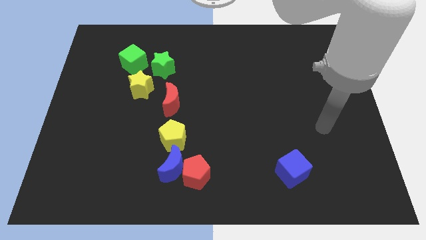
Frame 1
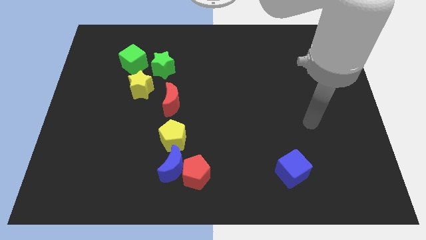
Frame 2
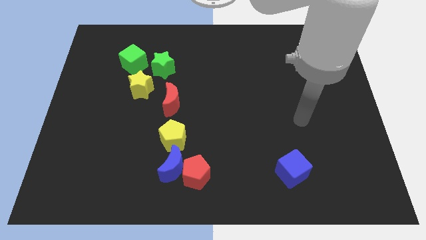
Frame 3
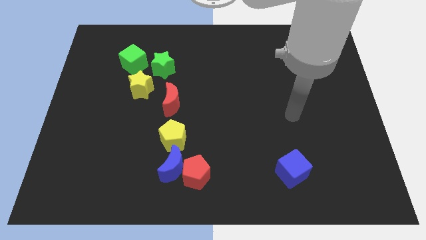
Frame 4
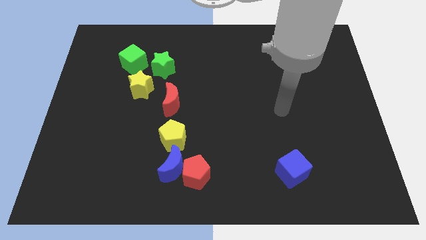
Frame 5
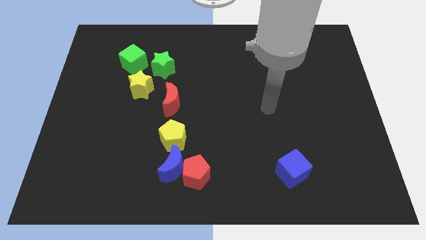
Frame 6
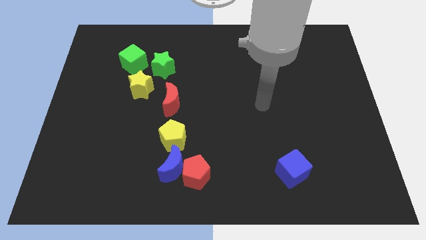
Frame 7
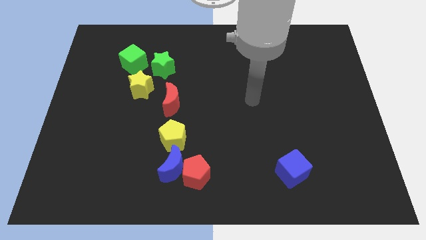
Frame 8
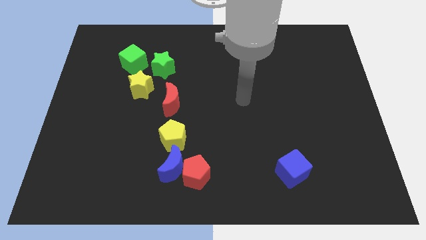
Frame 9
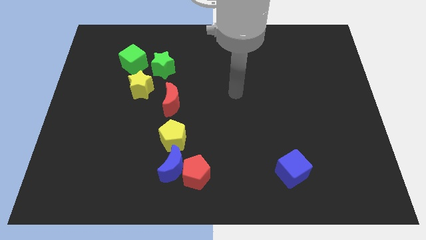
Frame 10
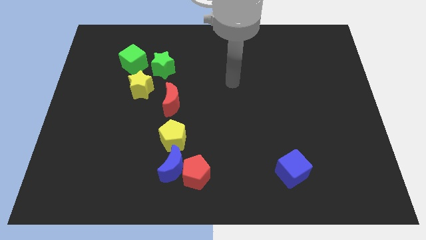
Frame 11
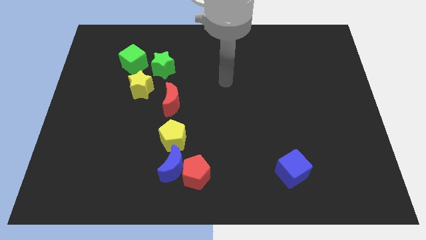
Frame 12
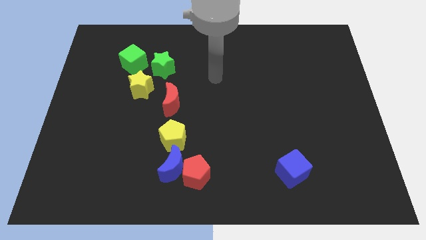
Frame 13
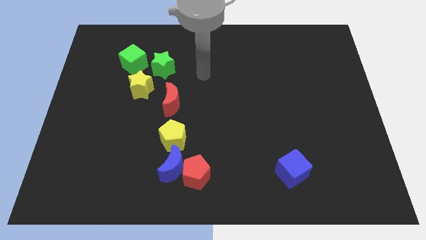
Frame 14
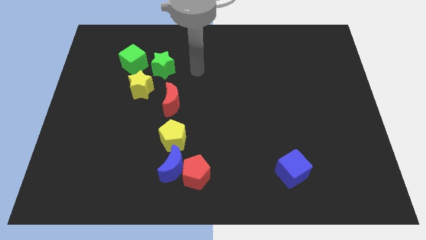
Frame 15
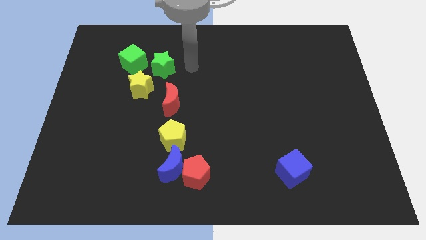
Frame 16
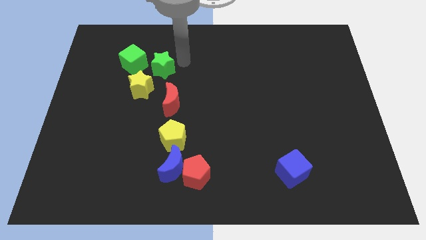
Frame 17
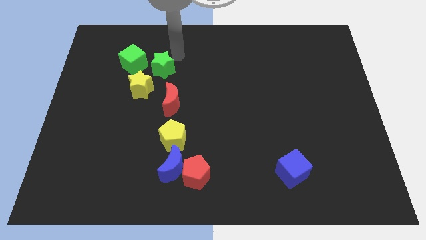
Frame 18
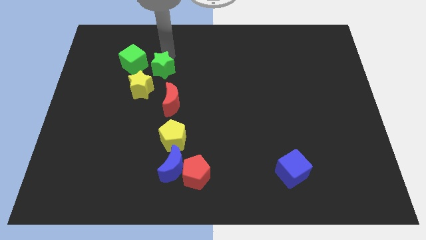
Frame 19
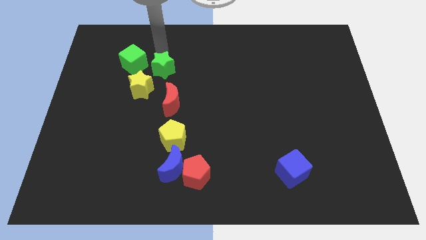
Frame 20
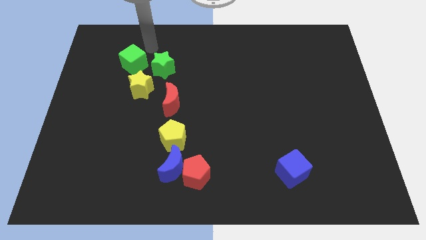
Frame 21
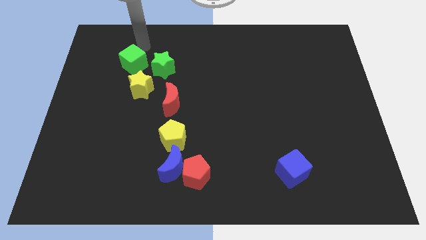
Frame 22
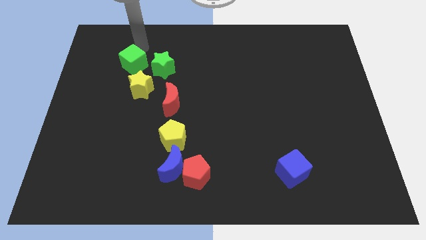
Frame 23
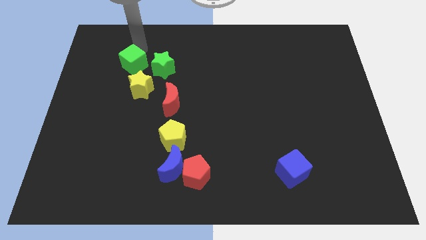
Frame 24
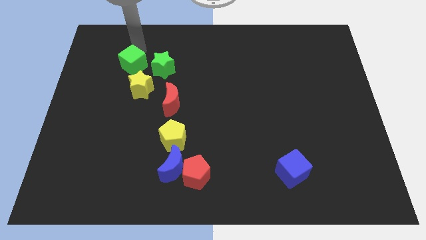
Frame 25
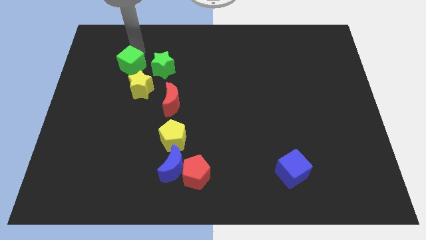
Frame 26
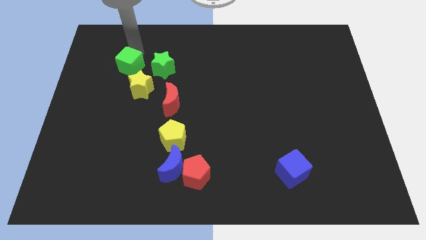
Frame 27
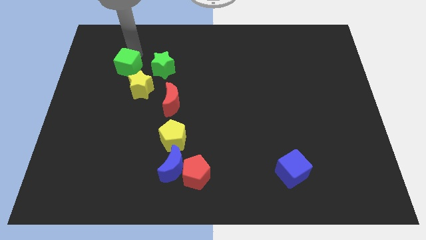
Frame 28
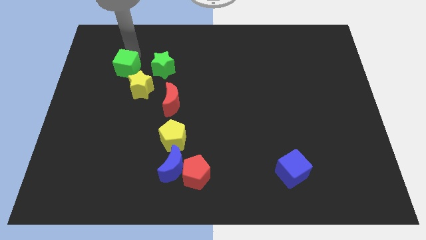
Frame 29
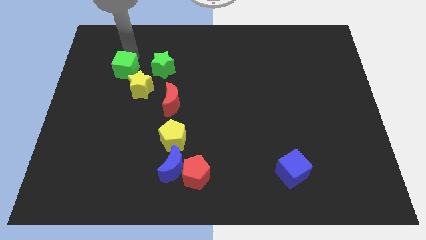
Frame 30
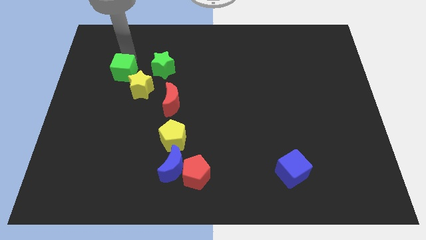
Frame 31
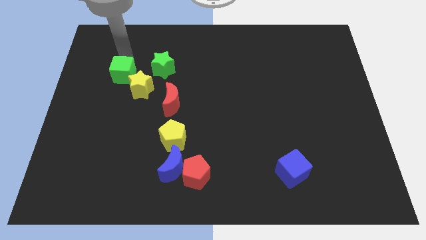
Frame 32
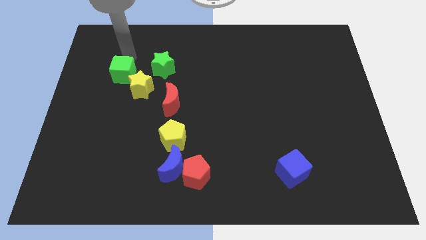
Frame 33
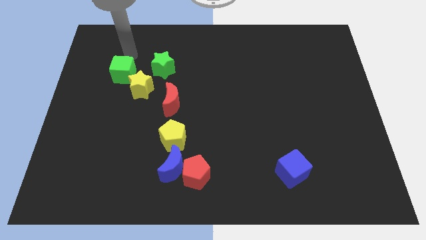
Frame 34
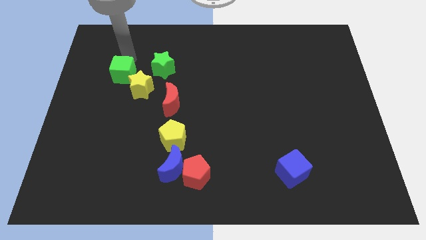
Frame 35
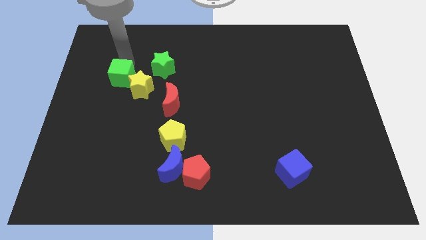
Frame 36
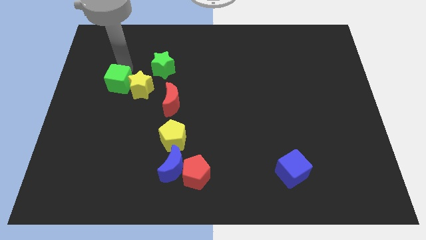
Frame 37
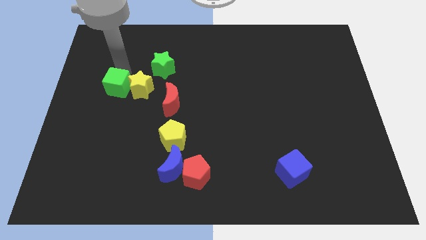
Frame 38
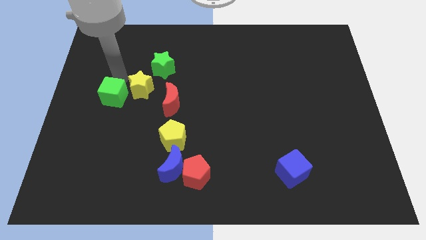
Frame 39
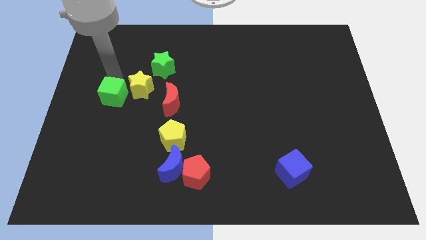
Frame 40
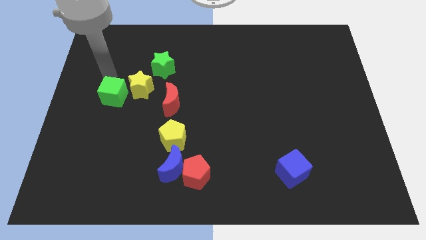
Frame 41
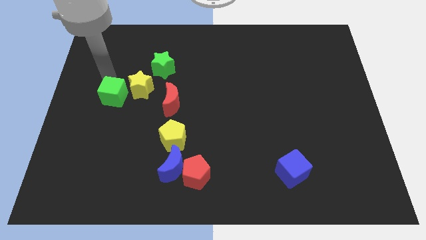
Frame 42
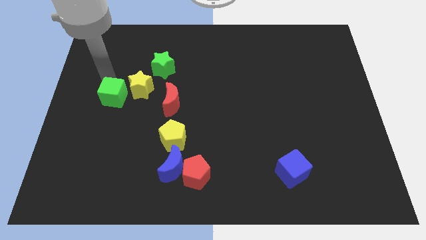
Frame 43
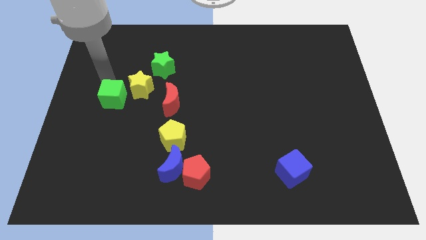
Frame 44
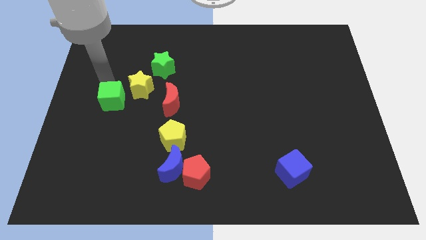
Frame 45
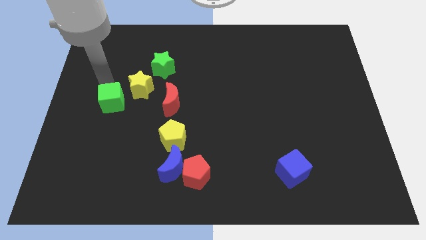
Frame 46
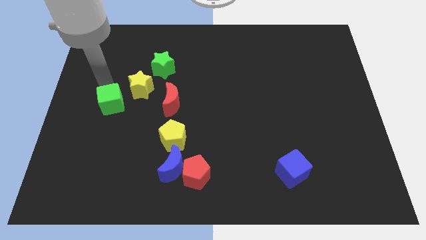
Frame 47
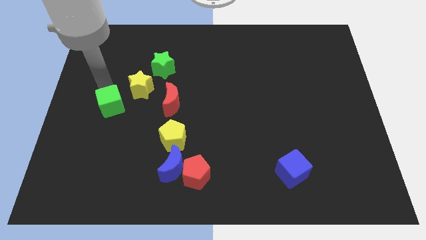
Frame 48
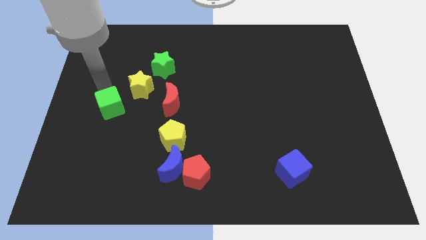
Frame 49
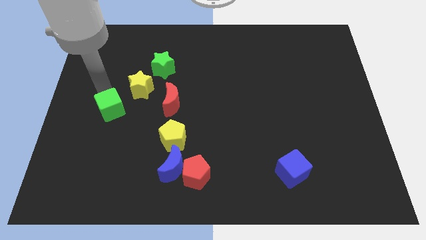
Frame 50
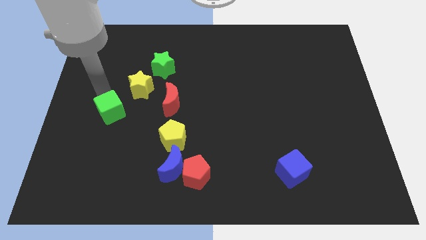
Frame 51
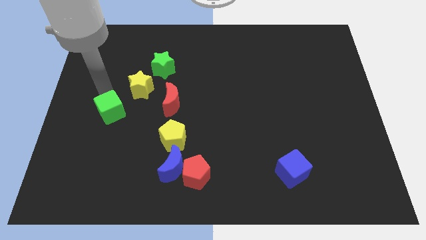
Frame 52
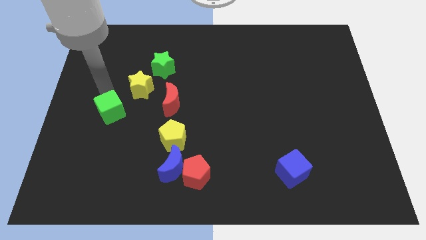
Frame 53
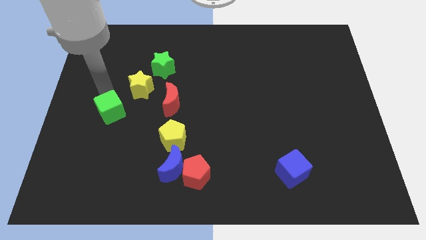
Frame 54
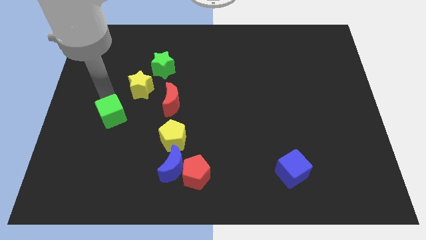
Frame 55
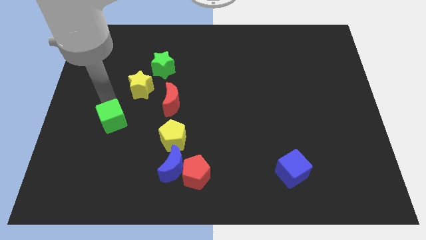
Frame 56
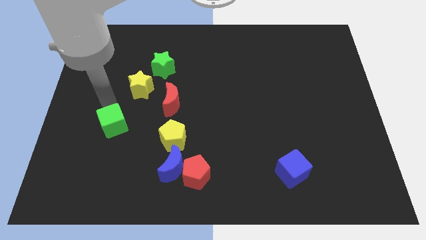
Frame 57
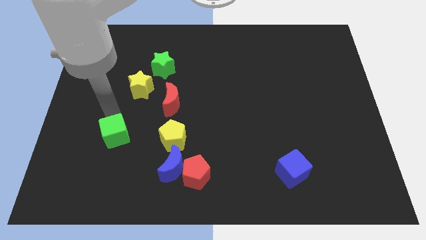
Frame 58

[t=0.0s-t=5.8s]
move the green cube down

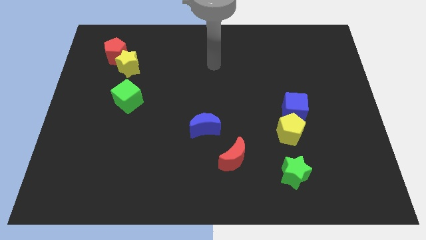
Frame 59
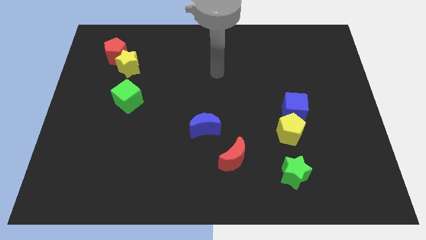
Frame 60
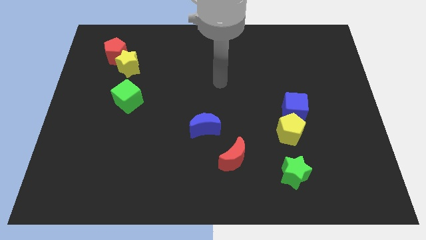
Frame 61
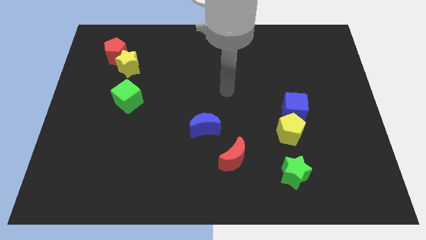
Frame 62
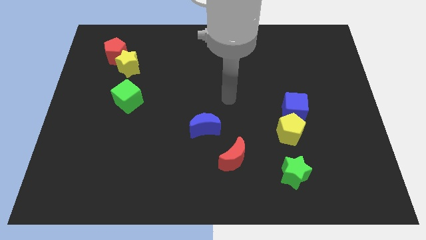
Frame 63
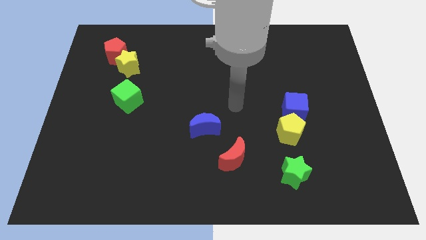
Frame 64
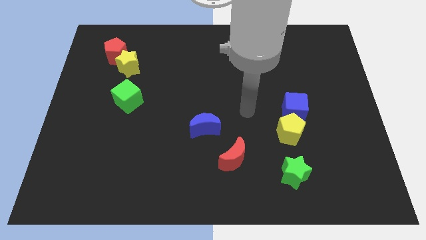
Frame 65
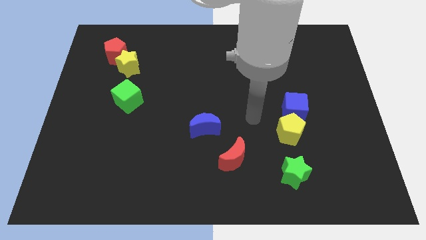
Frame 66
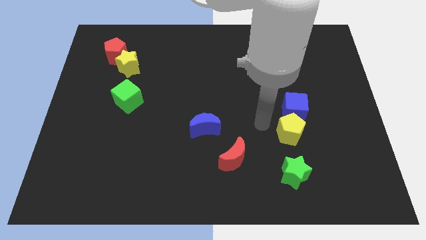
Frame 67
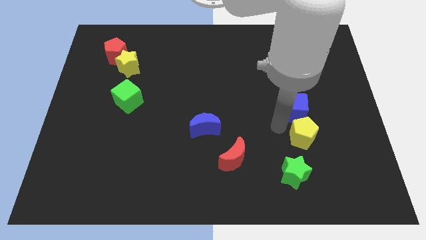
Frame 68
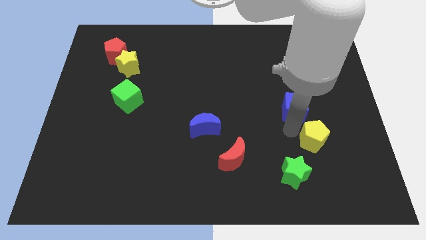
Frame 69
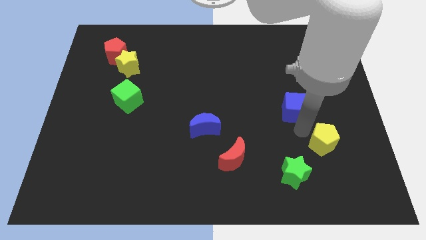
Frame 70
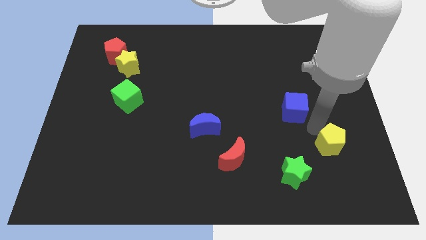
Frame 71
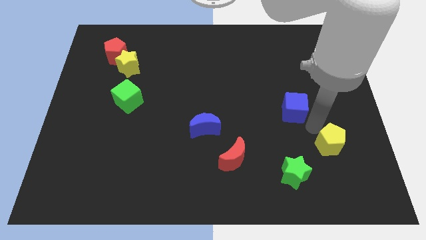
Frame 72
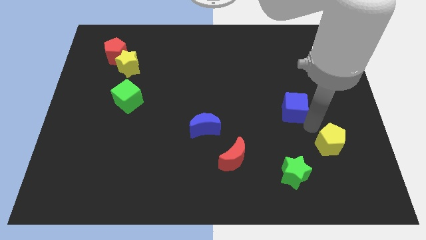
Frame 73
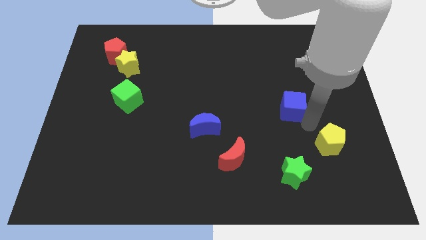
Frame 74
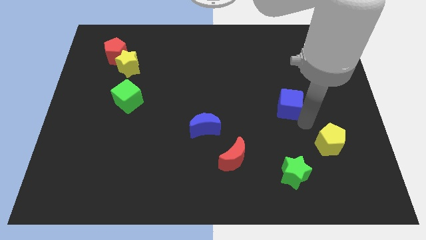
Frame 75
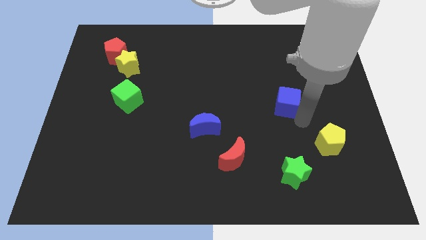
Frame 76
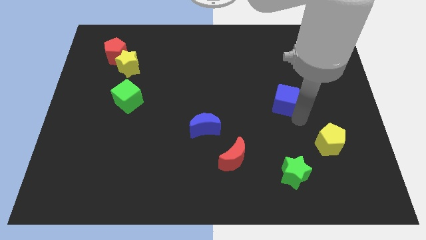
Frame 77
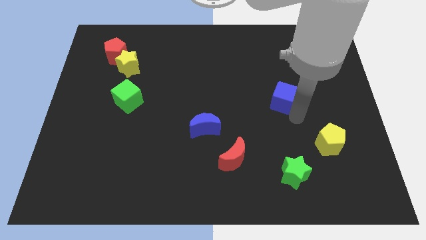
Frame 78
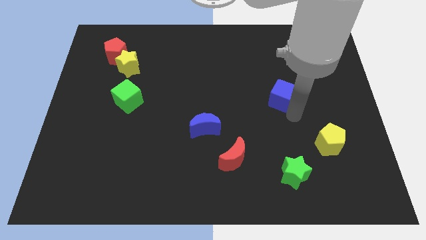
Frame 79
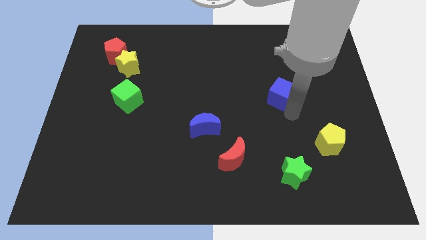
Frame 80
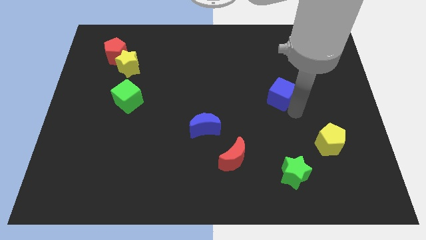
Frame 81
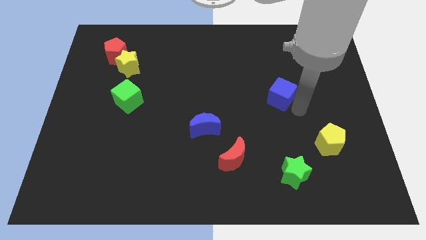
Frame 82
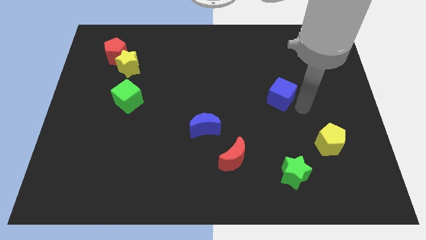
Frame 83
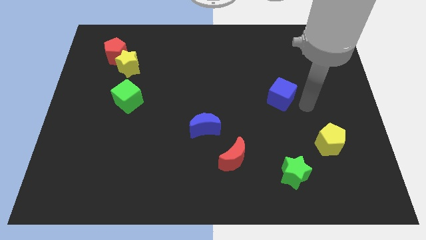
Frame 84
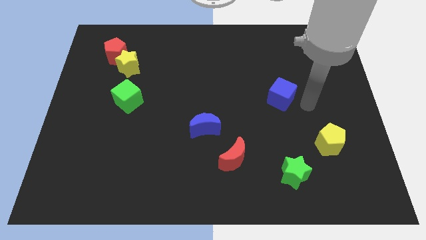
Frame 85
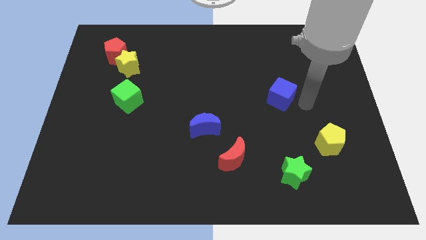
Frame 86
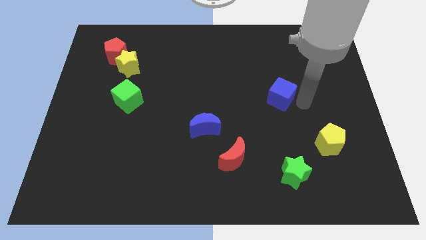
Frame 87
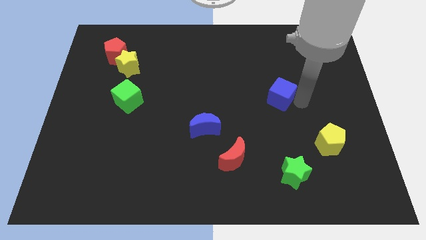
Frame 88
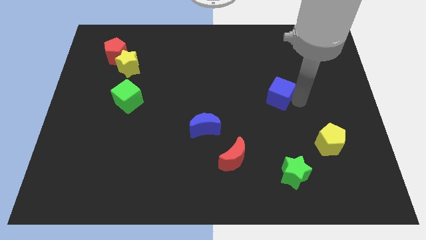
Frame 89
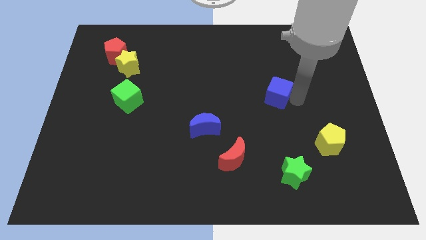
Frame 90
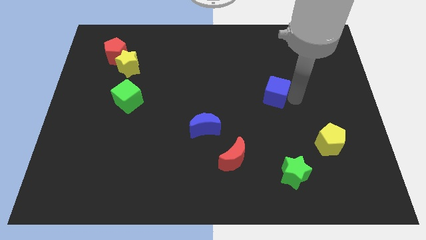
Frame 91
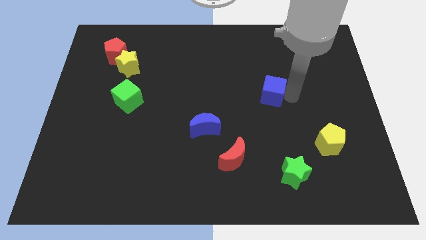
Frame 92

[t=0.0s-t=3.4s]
push the blue cube a little bit upwards and left diagonally
